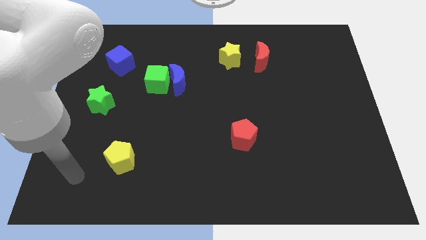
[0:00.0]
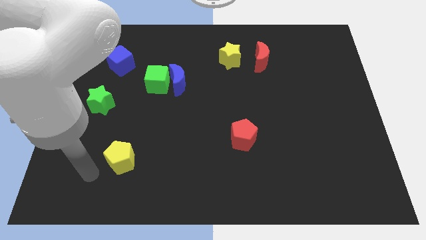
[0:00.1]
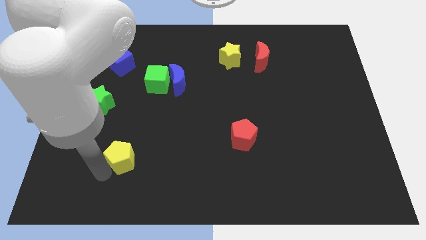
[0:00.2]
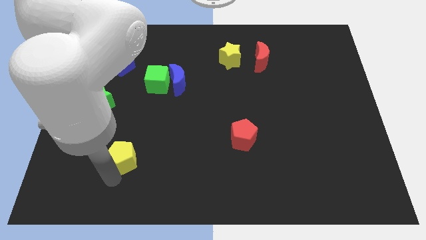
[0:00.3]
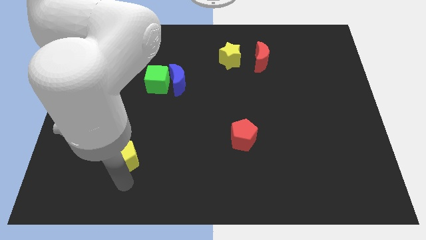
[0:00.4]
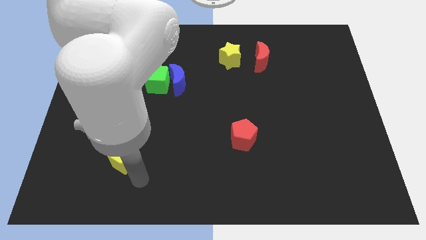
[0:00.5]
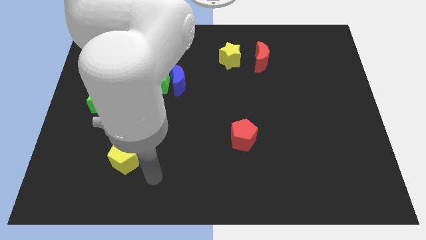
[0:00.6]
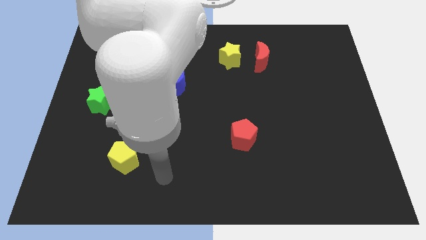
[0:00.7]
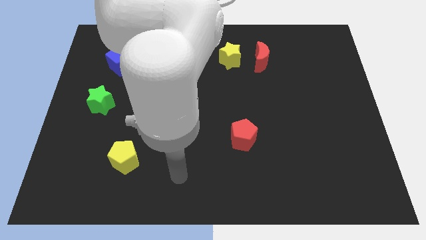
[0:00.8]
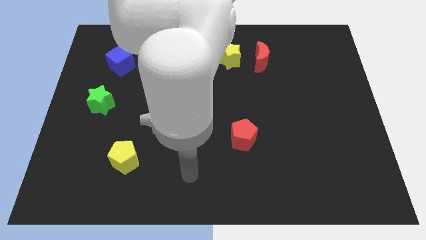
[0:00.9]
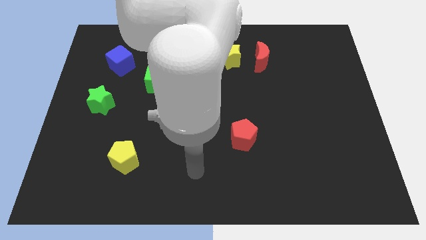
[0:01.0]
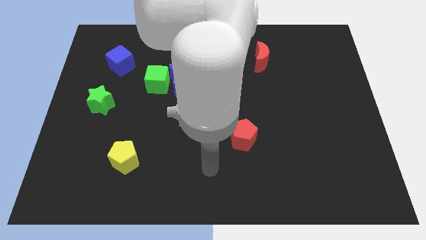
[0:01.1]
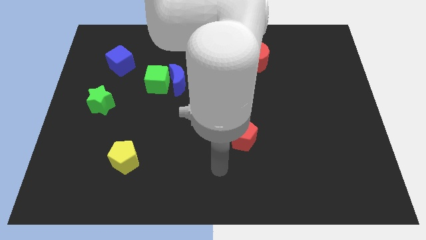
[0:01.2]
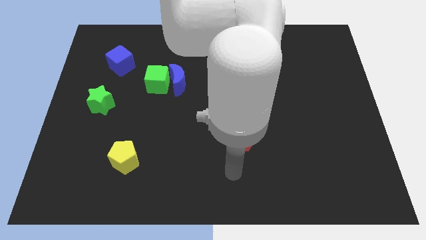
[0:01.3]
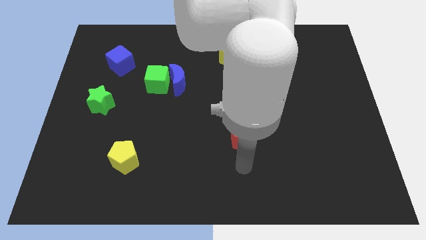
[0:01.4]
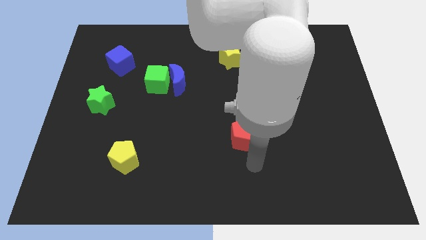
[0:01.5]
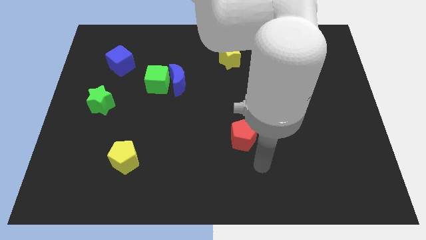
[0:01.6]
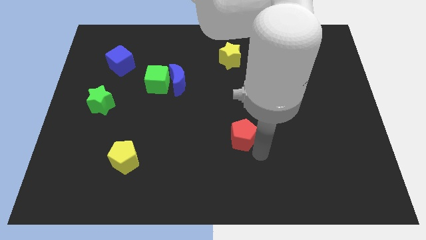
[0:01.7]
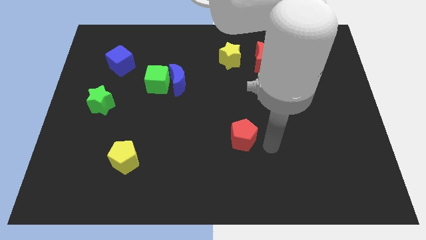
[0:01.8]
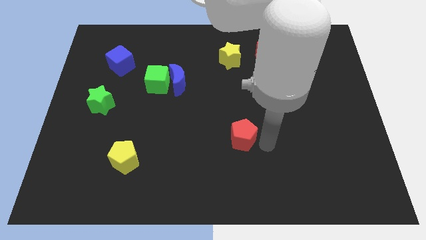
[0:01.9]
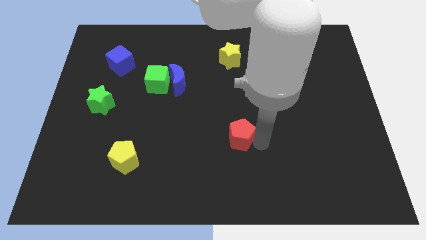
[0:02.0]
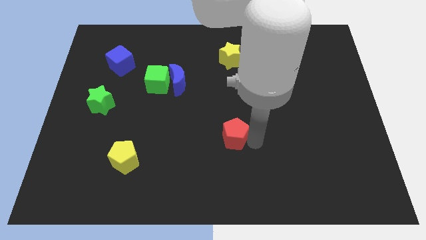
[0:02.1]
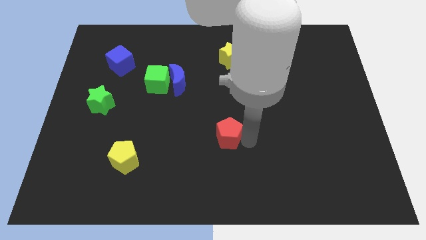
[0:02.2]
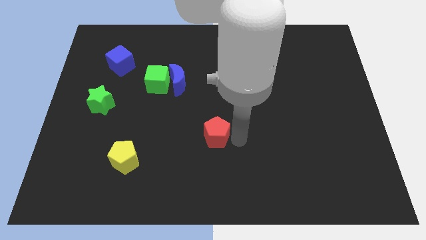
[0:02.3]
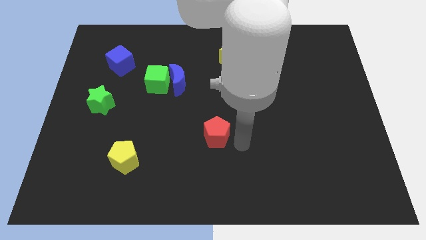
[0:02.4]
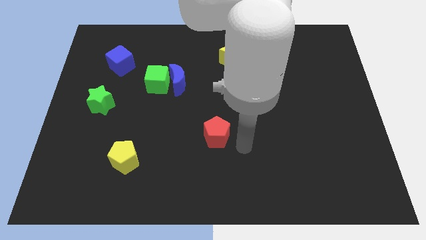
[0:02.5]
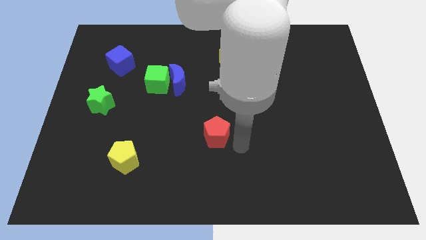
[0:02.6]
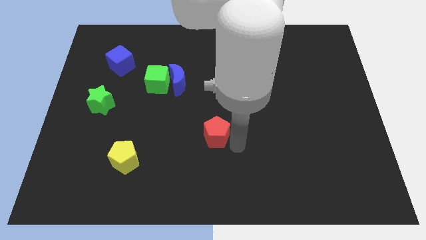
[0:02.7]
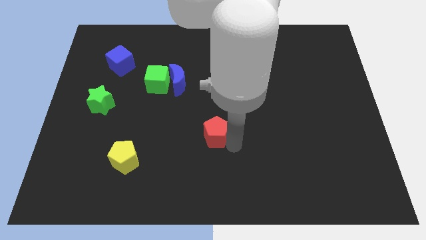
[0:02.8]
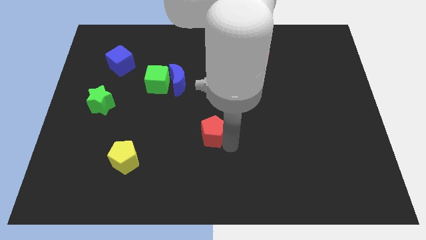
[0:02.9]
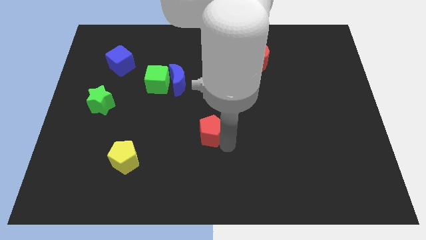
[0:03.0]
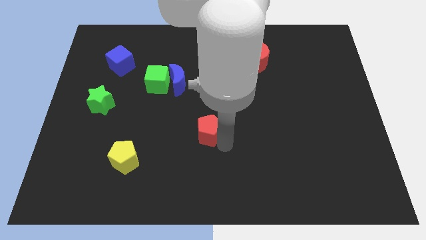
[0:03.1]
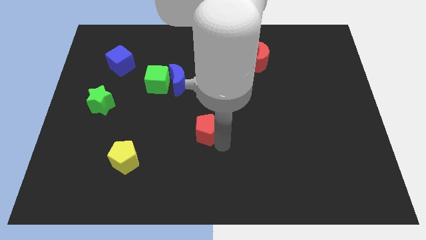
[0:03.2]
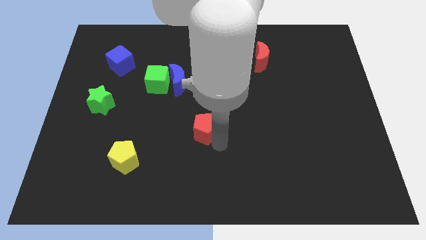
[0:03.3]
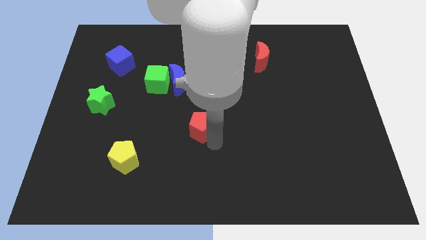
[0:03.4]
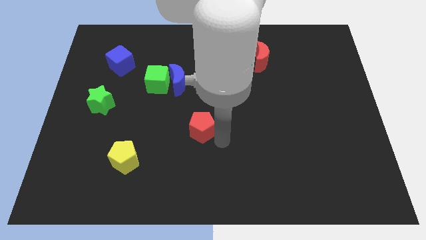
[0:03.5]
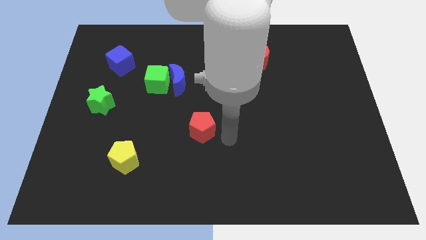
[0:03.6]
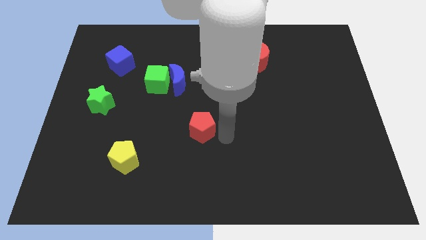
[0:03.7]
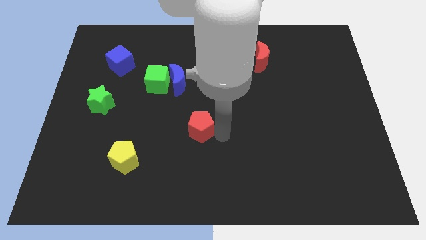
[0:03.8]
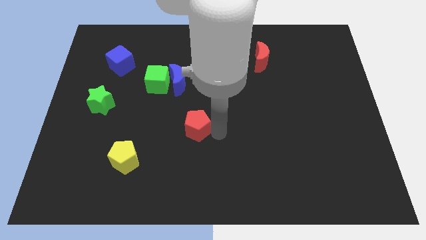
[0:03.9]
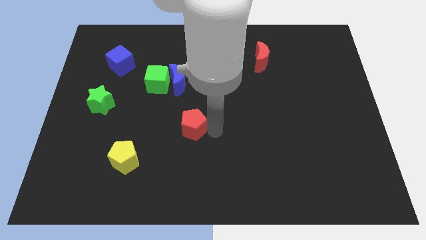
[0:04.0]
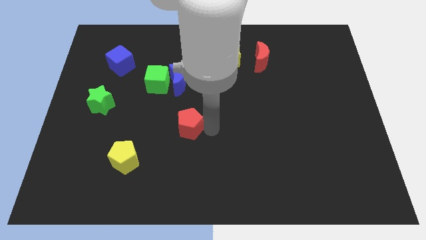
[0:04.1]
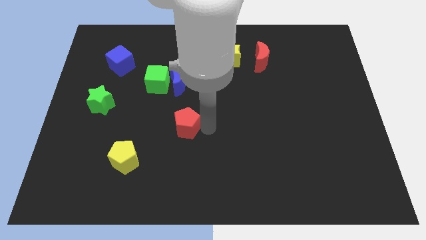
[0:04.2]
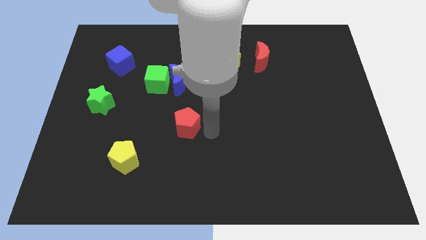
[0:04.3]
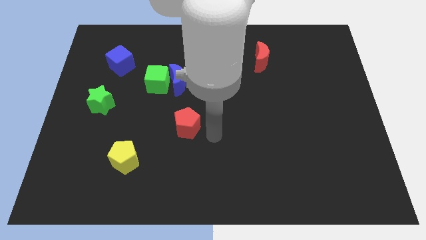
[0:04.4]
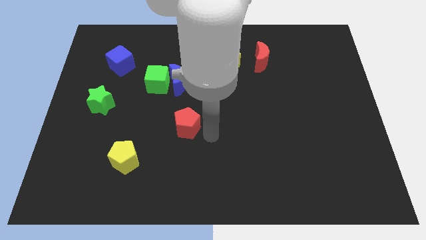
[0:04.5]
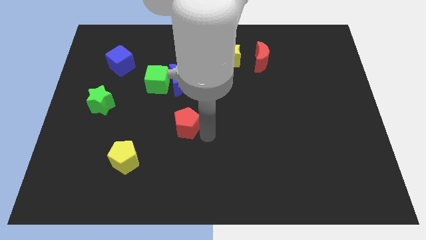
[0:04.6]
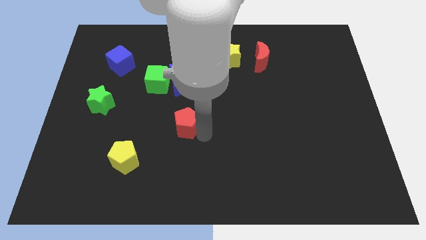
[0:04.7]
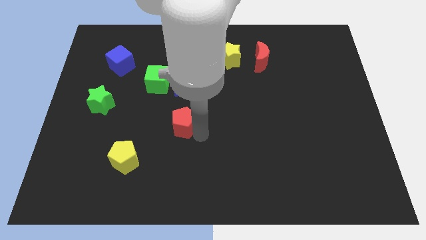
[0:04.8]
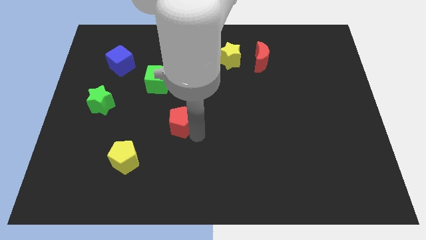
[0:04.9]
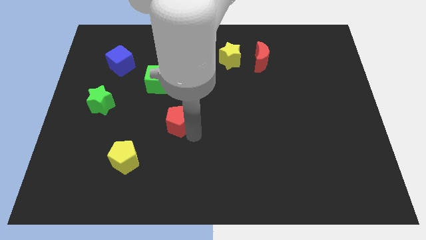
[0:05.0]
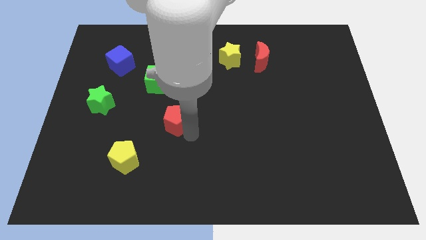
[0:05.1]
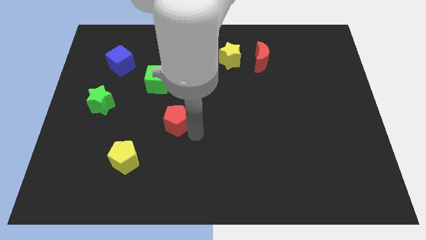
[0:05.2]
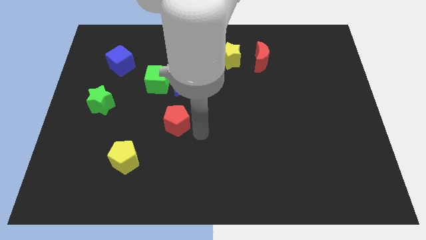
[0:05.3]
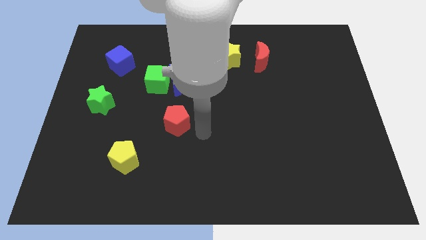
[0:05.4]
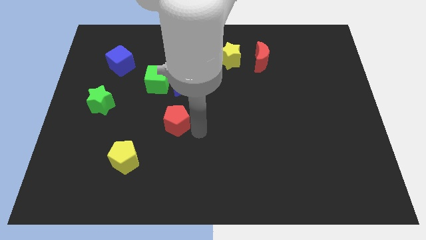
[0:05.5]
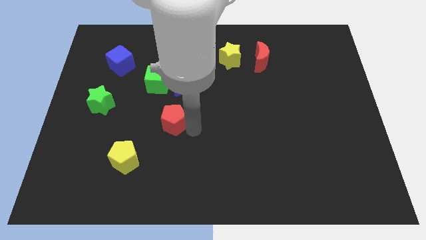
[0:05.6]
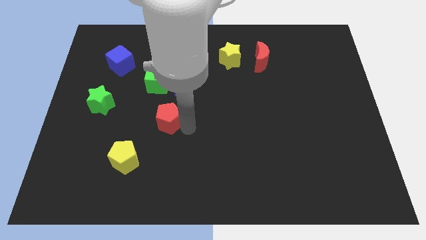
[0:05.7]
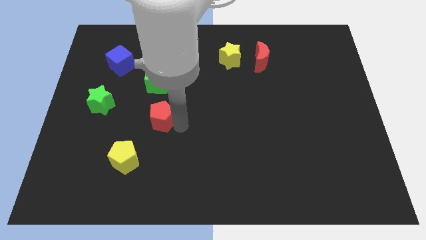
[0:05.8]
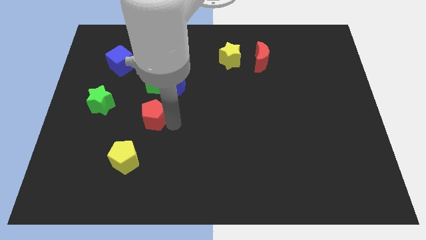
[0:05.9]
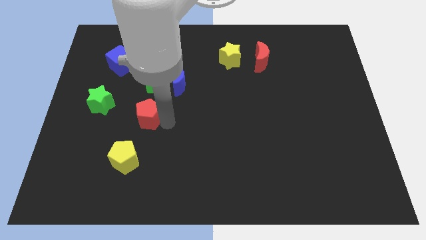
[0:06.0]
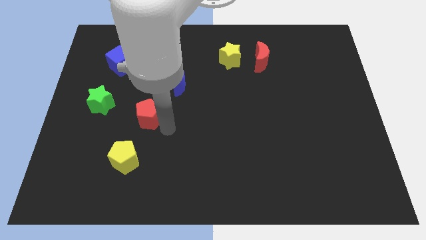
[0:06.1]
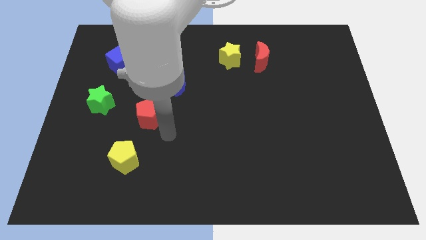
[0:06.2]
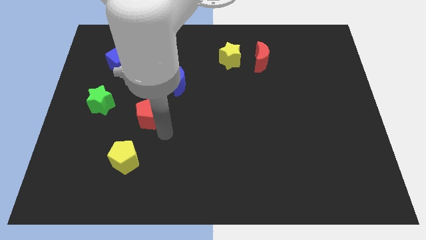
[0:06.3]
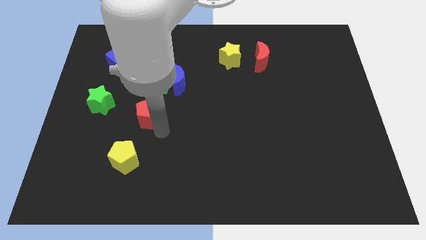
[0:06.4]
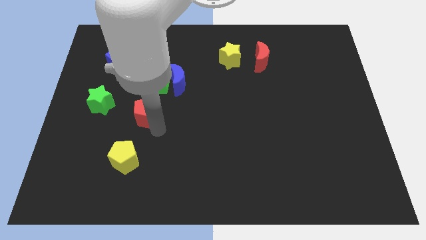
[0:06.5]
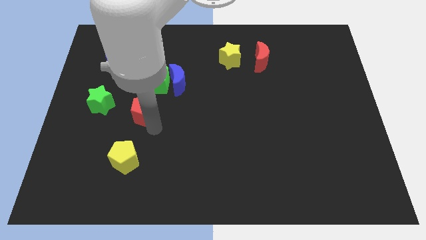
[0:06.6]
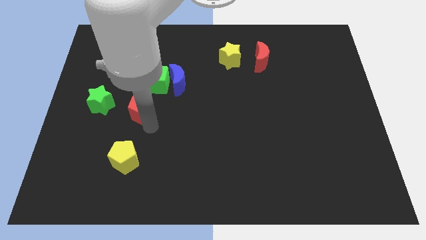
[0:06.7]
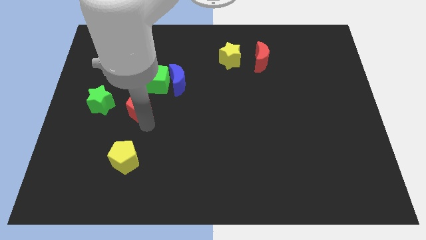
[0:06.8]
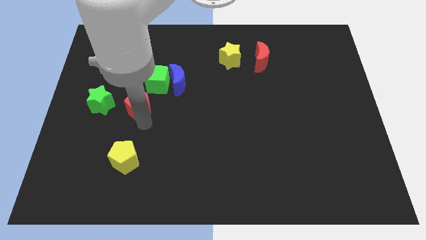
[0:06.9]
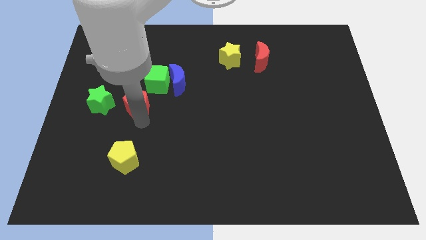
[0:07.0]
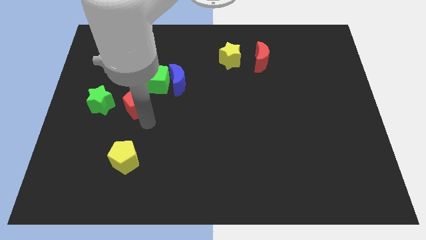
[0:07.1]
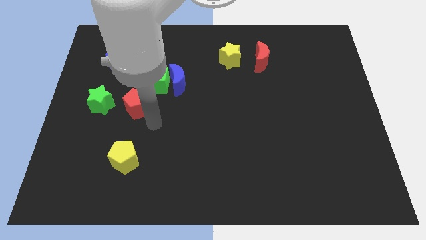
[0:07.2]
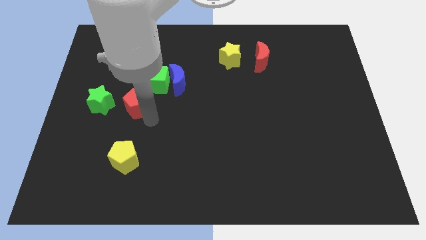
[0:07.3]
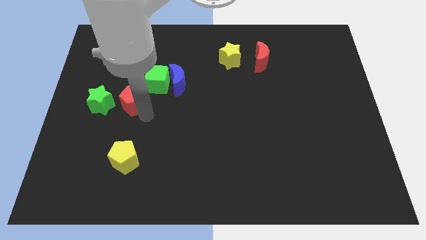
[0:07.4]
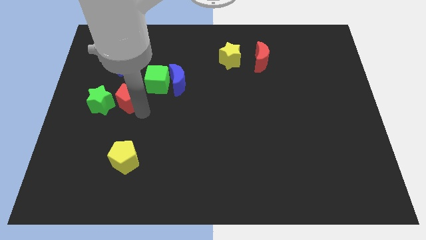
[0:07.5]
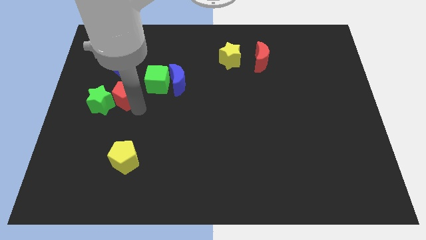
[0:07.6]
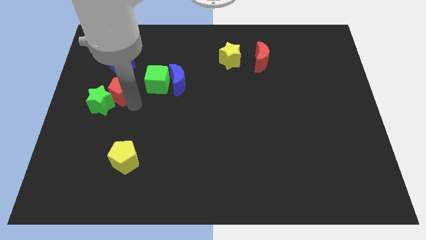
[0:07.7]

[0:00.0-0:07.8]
push the red pentagon to the top side of the green star
